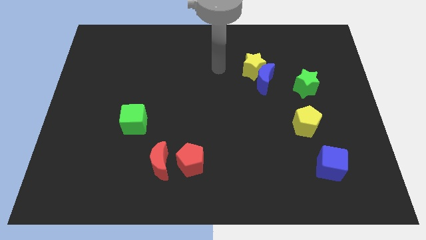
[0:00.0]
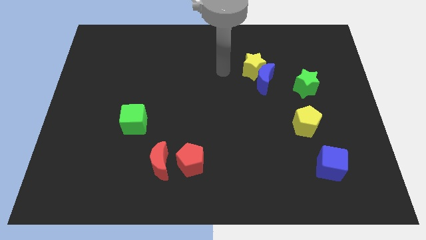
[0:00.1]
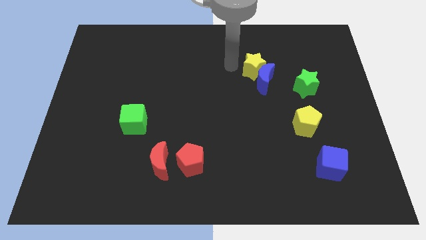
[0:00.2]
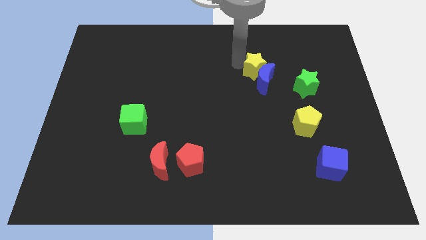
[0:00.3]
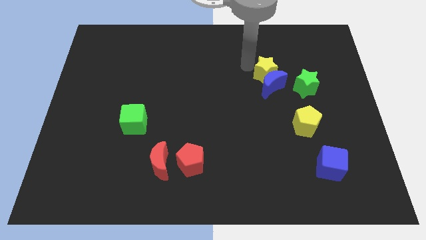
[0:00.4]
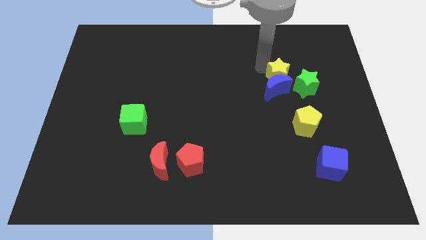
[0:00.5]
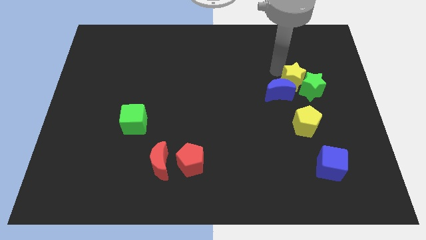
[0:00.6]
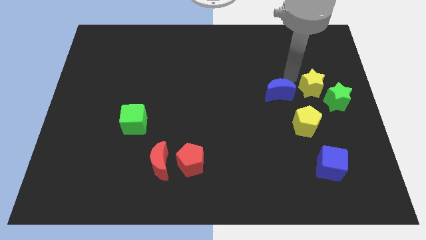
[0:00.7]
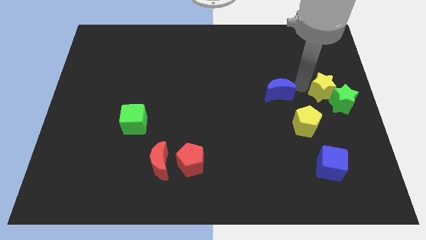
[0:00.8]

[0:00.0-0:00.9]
move the blue moon away from the yellow star

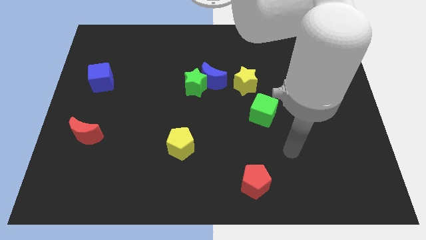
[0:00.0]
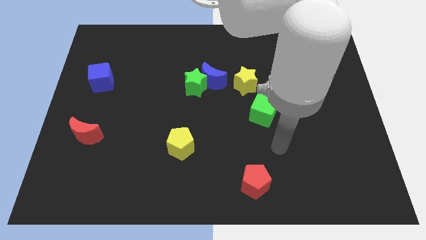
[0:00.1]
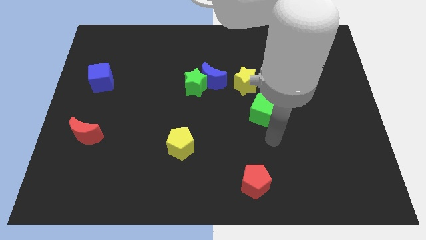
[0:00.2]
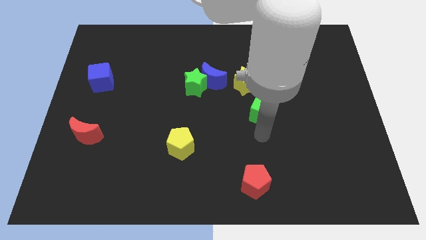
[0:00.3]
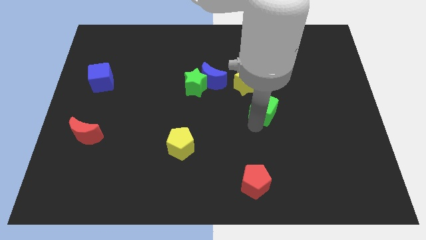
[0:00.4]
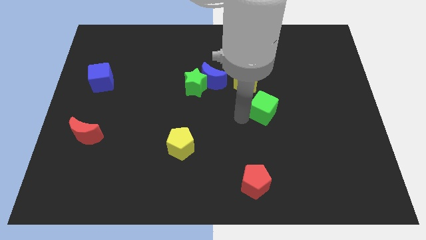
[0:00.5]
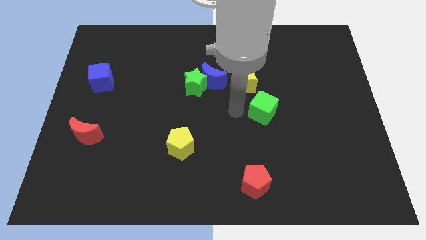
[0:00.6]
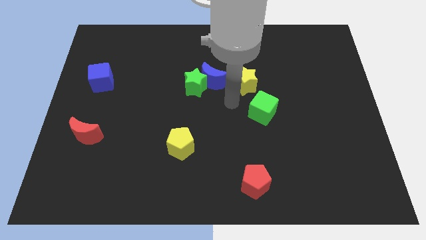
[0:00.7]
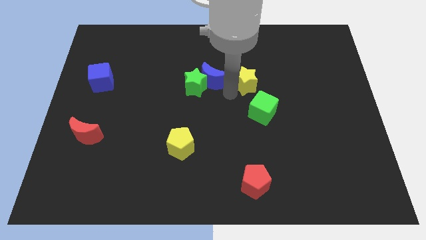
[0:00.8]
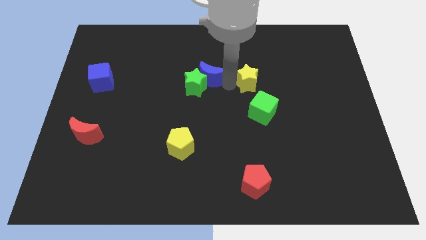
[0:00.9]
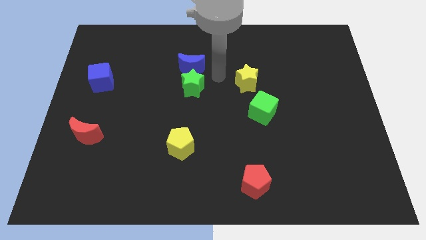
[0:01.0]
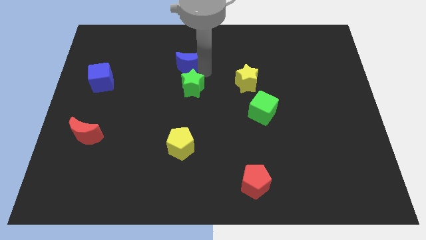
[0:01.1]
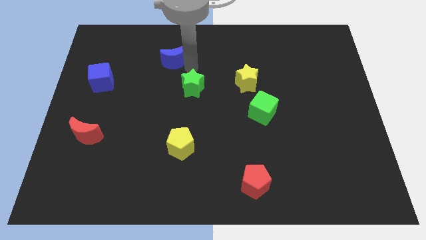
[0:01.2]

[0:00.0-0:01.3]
separate the green star from the blue moon

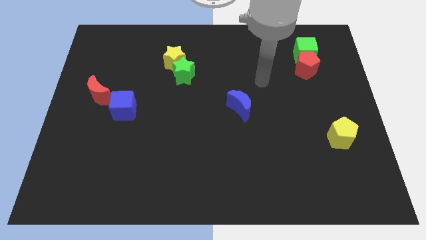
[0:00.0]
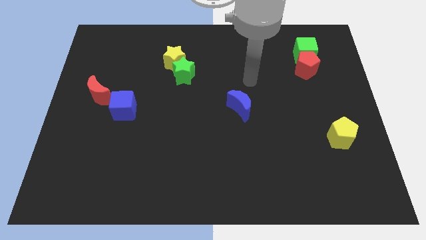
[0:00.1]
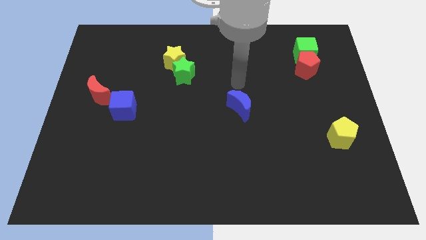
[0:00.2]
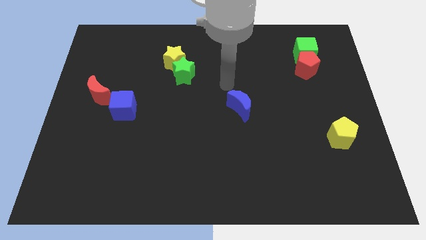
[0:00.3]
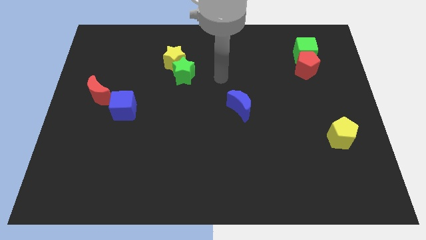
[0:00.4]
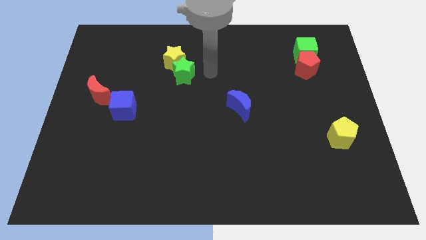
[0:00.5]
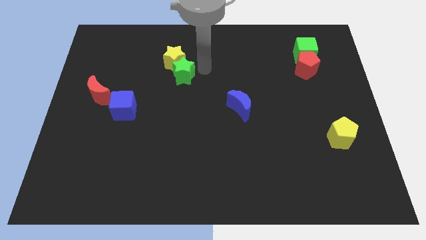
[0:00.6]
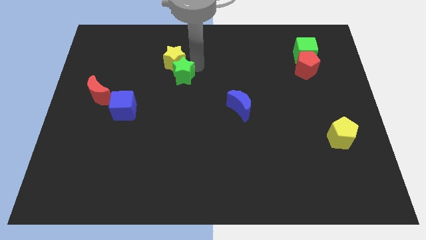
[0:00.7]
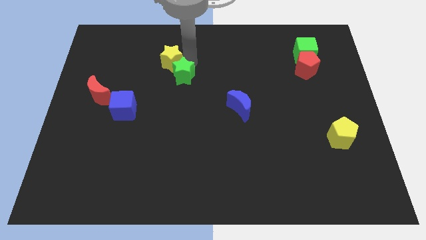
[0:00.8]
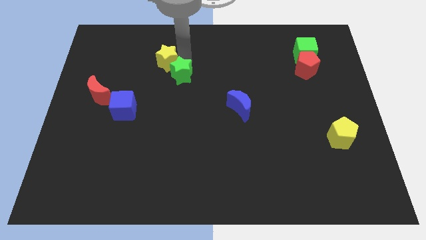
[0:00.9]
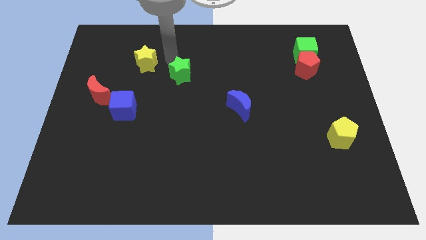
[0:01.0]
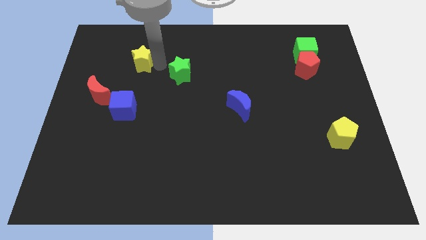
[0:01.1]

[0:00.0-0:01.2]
move the green star away from the yellow star

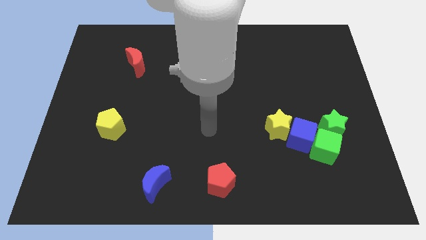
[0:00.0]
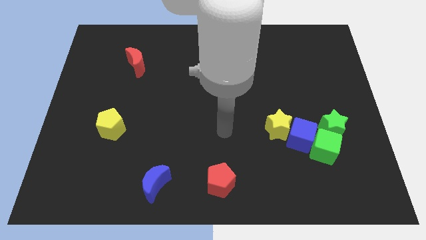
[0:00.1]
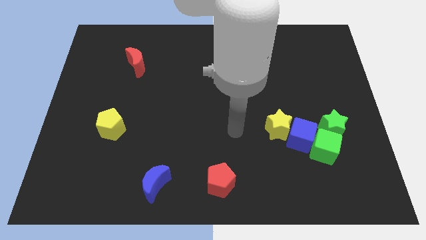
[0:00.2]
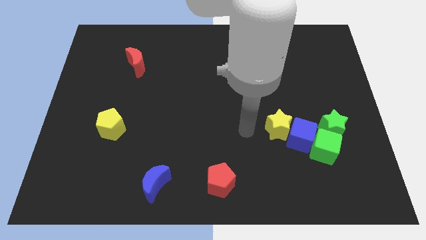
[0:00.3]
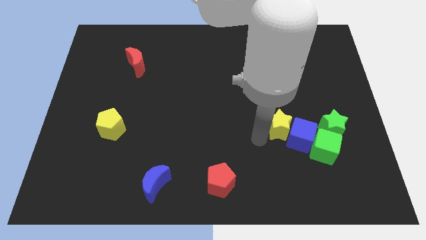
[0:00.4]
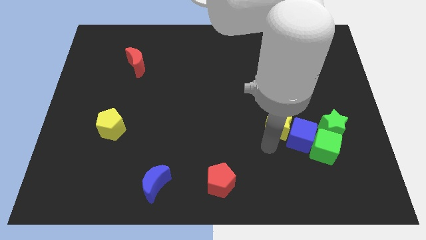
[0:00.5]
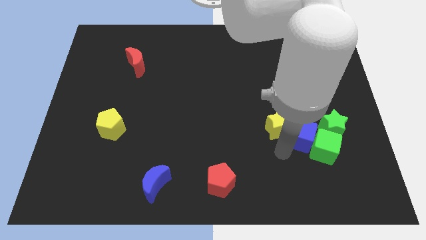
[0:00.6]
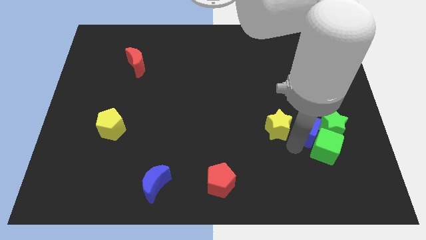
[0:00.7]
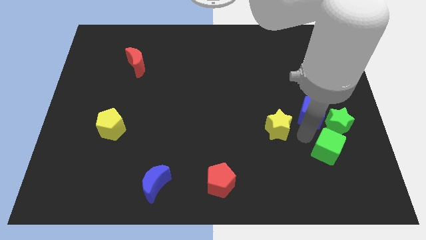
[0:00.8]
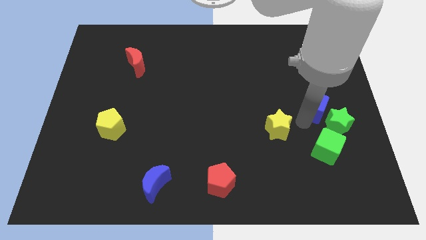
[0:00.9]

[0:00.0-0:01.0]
move the yellow star away from the blue cube

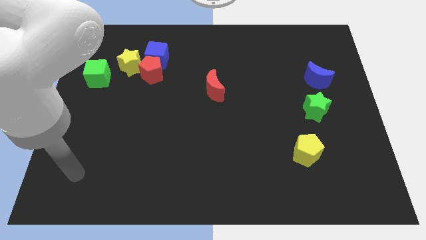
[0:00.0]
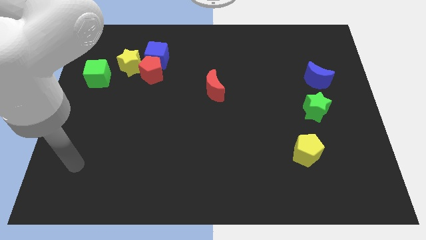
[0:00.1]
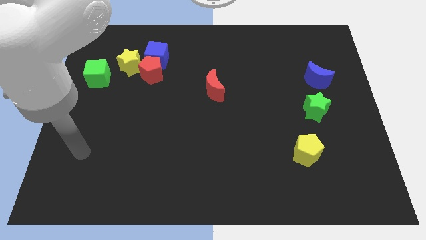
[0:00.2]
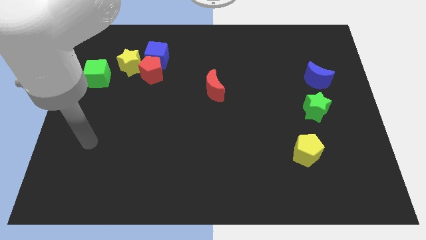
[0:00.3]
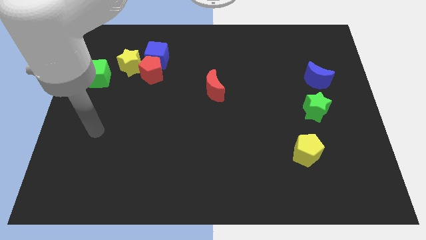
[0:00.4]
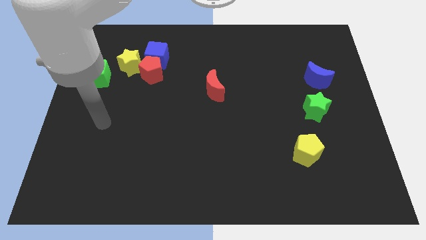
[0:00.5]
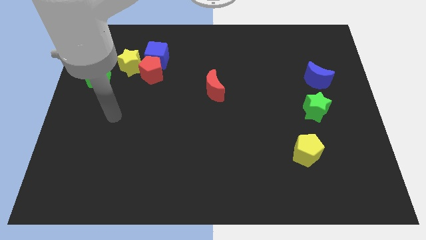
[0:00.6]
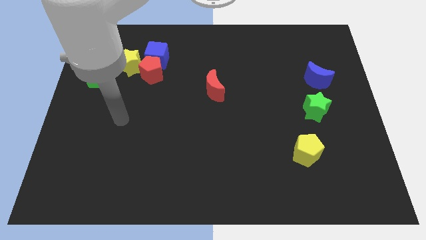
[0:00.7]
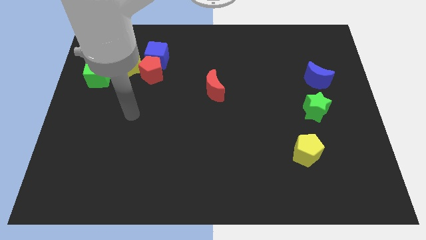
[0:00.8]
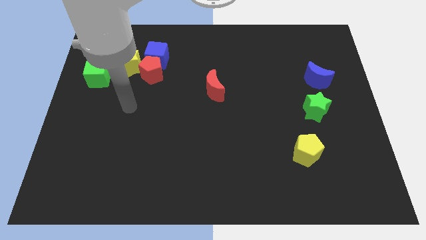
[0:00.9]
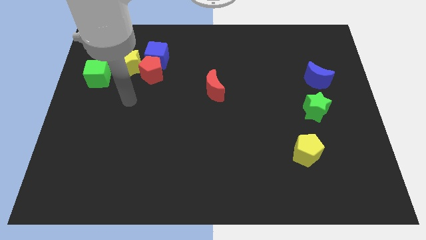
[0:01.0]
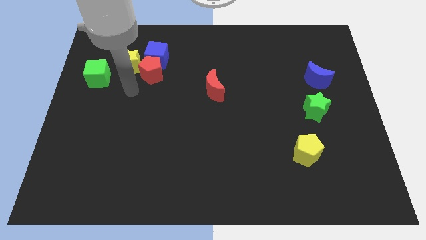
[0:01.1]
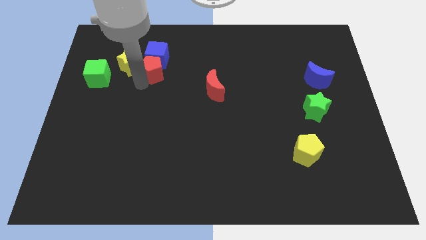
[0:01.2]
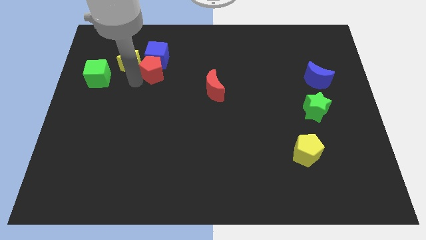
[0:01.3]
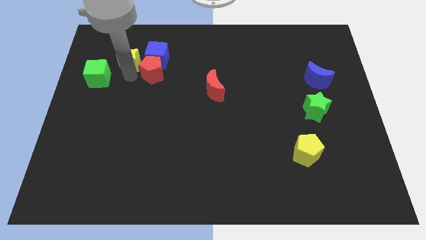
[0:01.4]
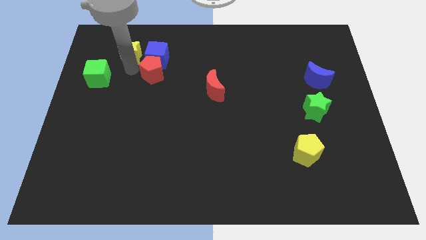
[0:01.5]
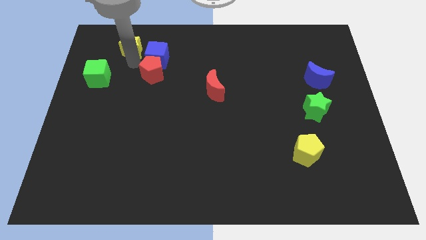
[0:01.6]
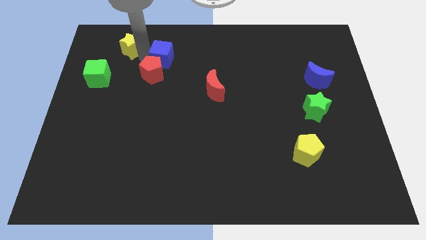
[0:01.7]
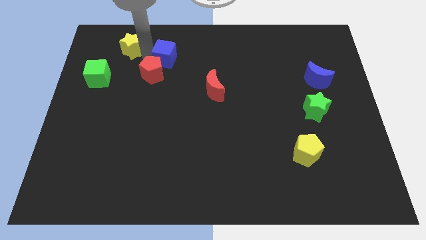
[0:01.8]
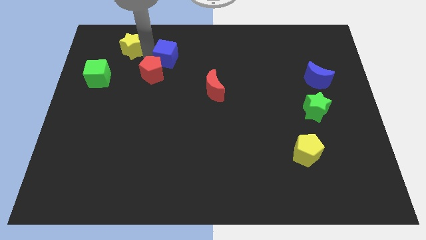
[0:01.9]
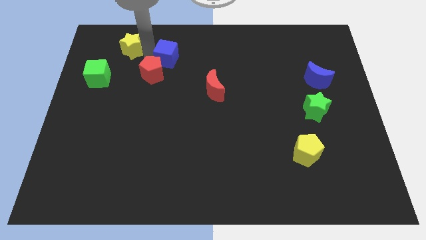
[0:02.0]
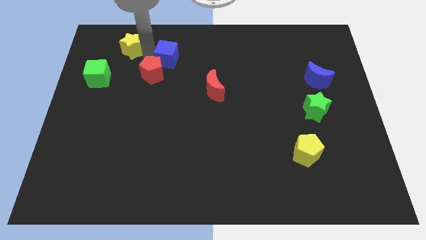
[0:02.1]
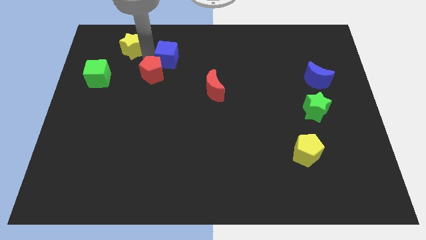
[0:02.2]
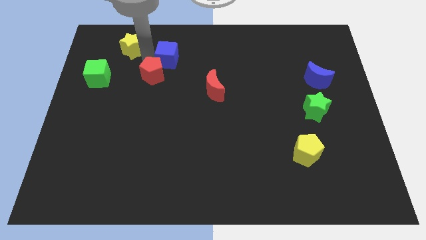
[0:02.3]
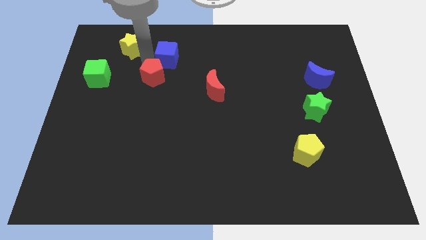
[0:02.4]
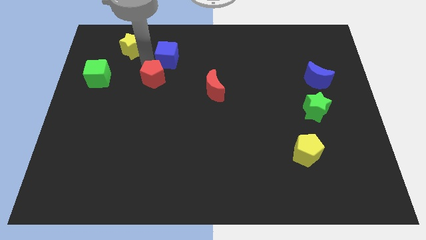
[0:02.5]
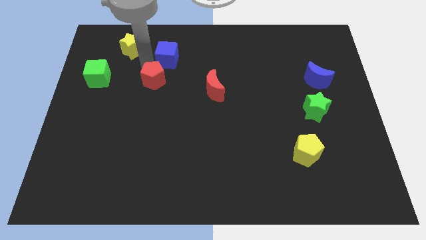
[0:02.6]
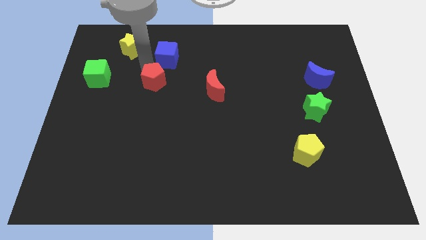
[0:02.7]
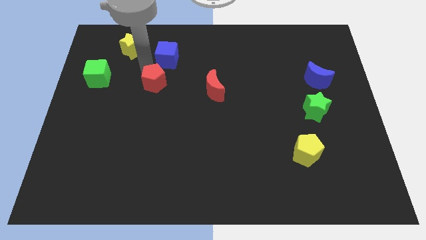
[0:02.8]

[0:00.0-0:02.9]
separate the red pentagon from the blue cube and yellow star

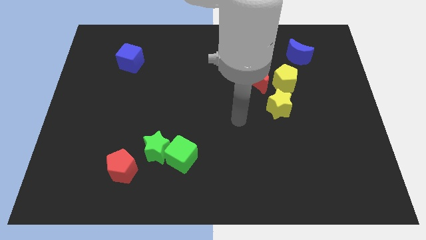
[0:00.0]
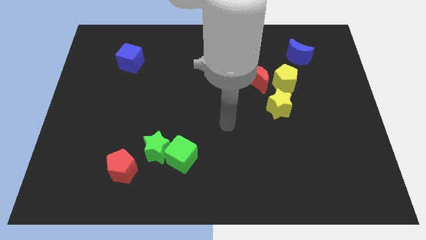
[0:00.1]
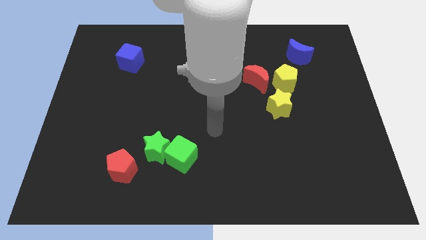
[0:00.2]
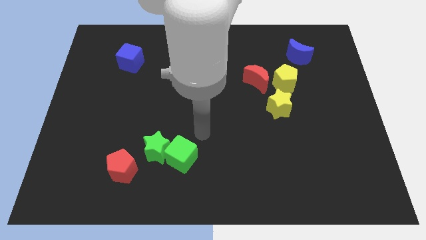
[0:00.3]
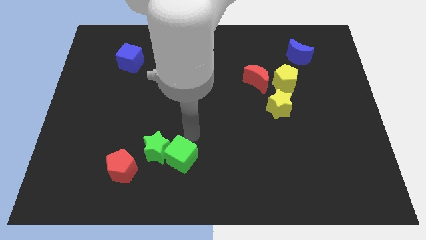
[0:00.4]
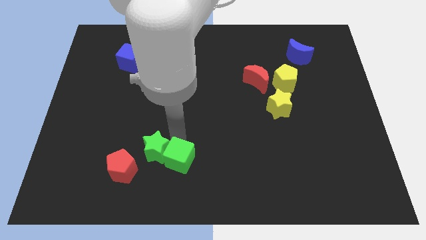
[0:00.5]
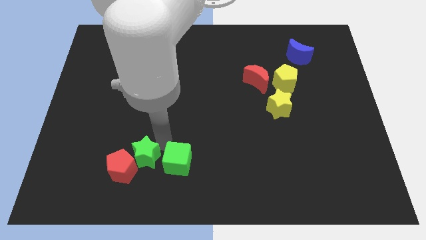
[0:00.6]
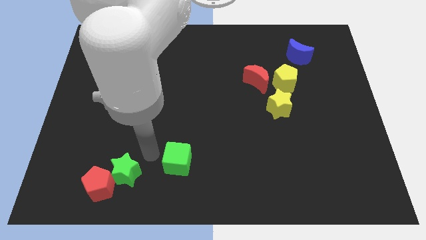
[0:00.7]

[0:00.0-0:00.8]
separate the green cube from the green star

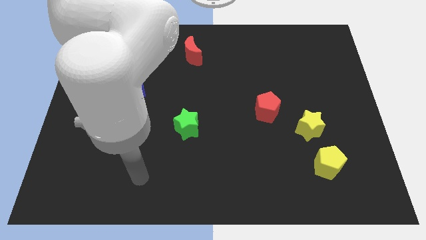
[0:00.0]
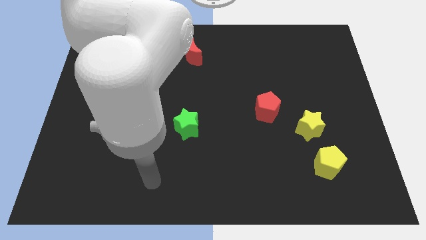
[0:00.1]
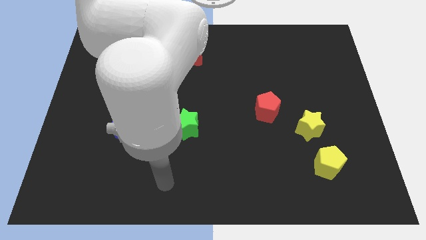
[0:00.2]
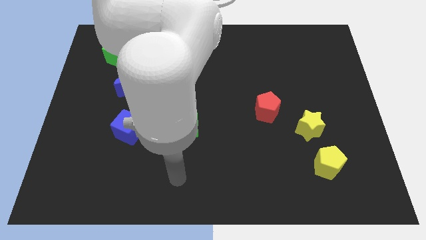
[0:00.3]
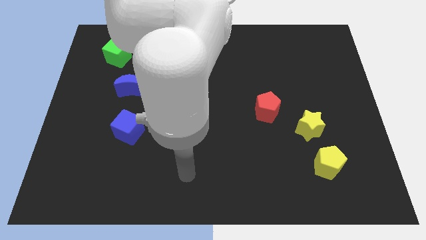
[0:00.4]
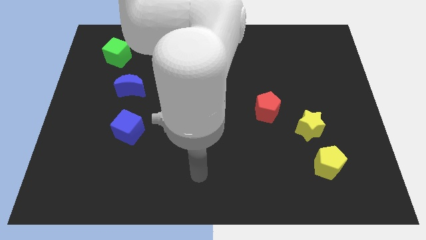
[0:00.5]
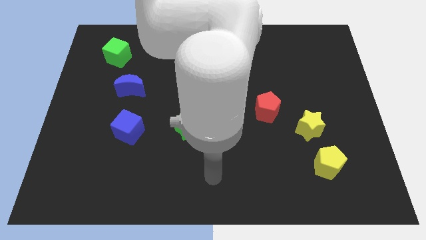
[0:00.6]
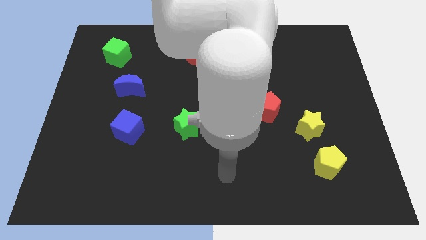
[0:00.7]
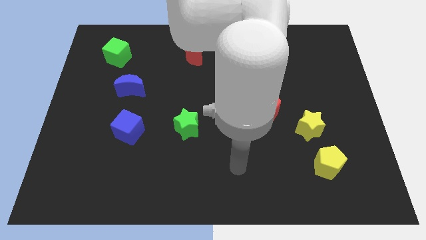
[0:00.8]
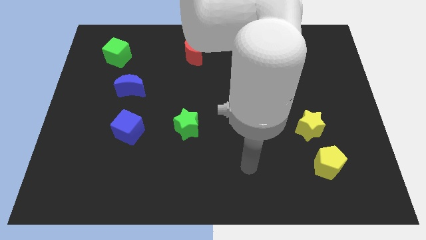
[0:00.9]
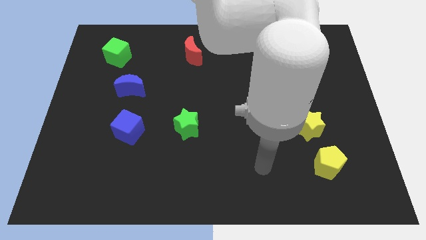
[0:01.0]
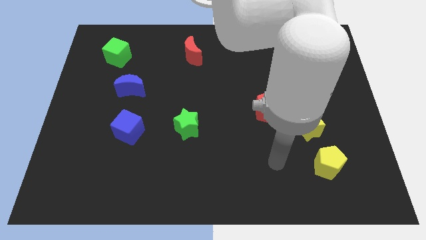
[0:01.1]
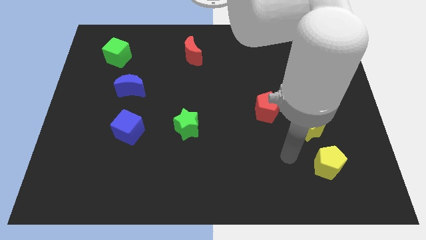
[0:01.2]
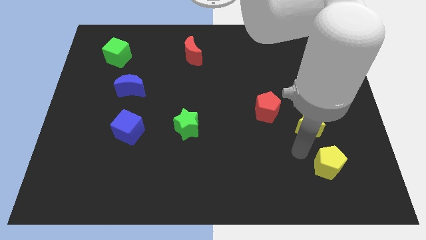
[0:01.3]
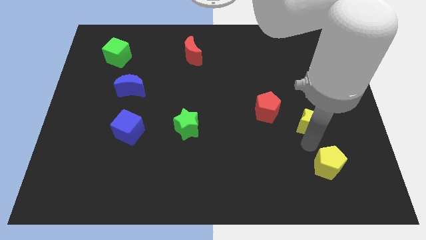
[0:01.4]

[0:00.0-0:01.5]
pull the yellow pentagon apart from the yellow star
